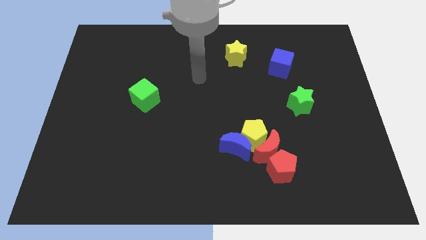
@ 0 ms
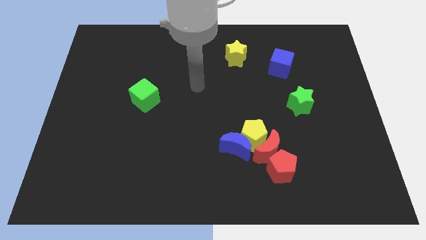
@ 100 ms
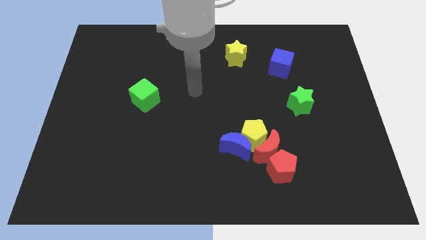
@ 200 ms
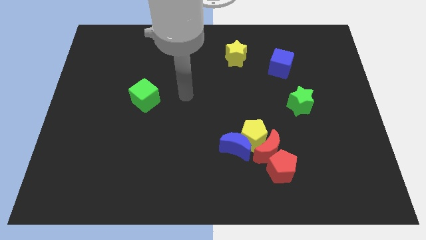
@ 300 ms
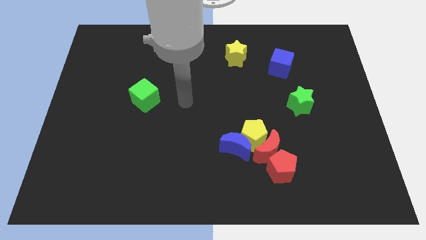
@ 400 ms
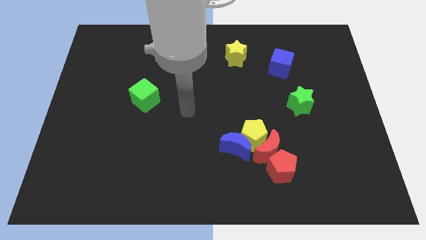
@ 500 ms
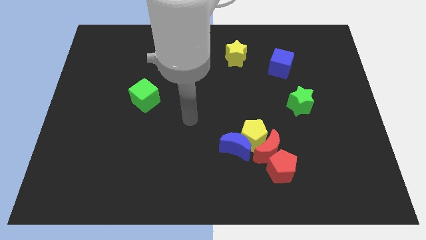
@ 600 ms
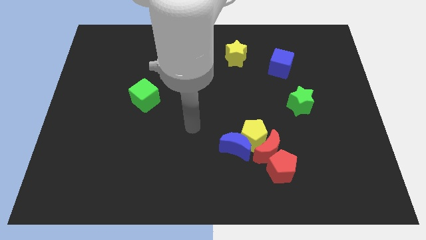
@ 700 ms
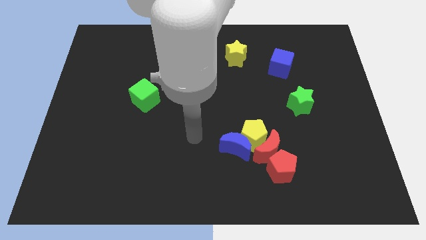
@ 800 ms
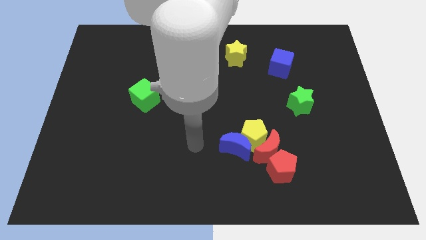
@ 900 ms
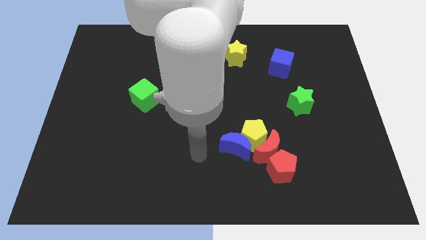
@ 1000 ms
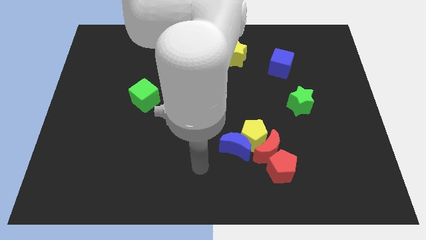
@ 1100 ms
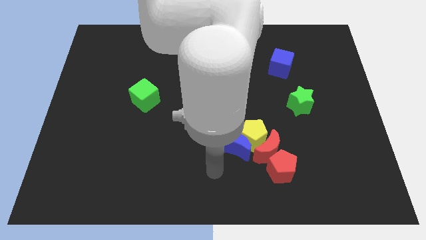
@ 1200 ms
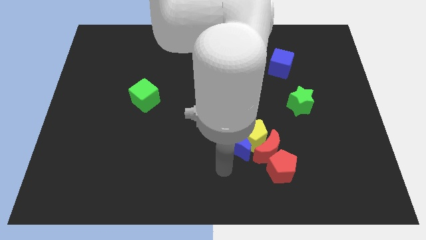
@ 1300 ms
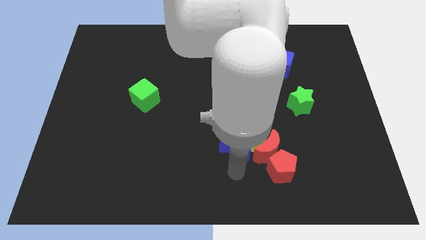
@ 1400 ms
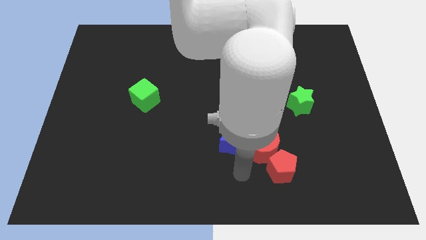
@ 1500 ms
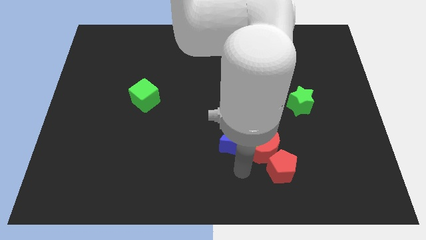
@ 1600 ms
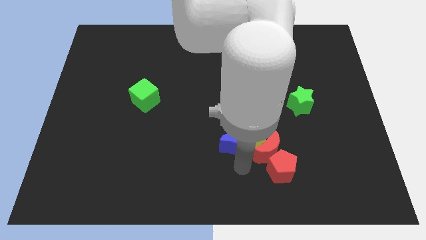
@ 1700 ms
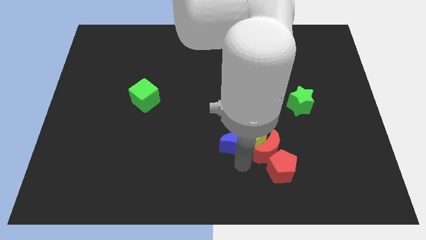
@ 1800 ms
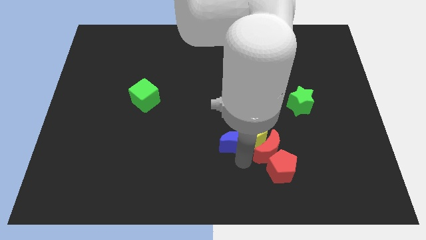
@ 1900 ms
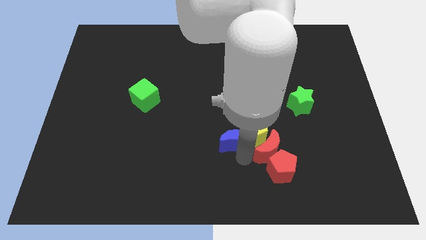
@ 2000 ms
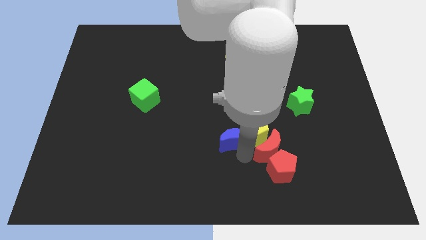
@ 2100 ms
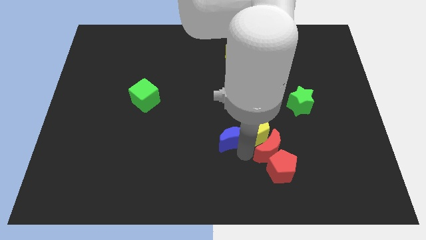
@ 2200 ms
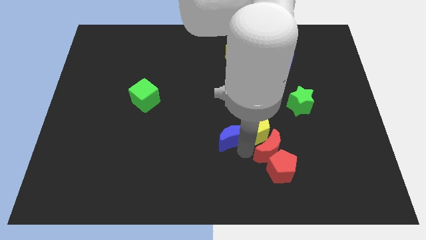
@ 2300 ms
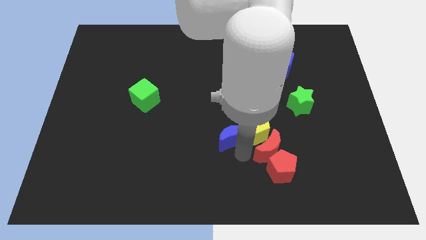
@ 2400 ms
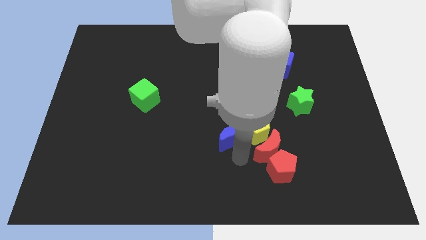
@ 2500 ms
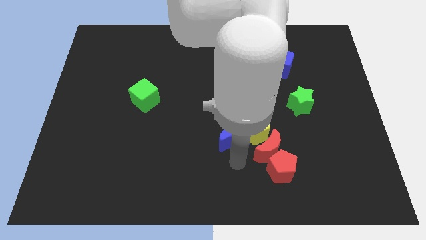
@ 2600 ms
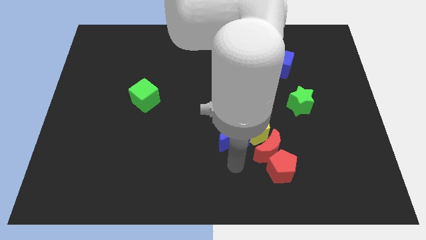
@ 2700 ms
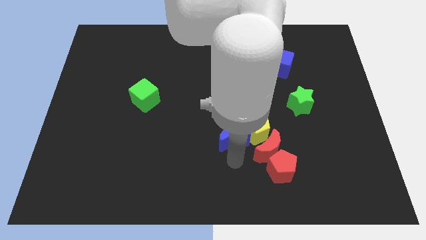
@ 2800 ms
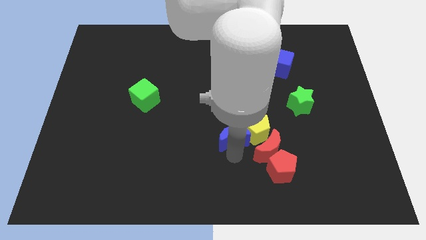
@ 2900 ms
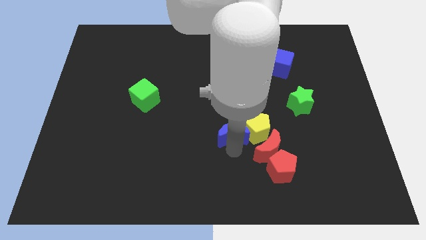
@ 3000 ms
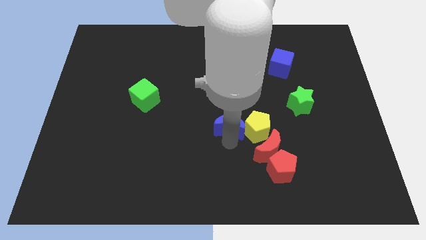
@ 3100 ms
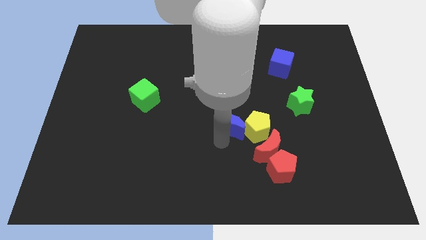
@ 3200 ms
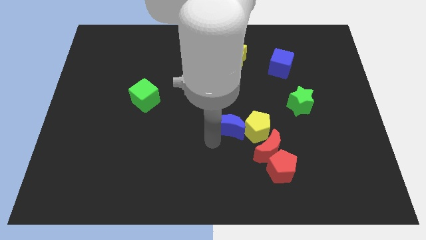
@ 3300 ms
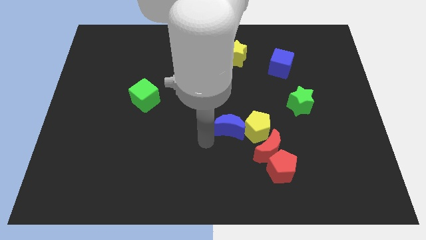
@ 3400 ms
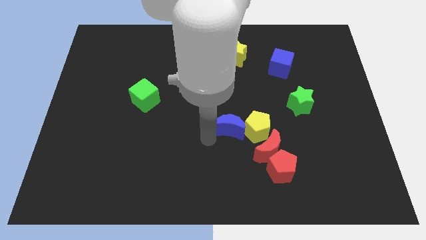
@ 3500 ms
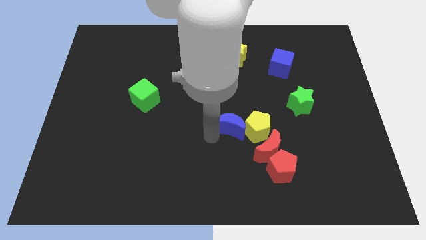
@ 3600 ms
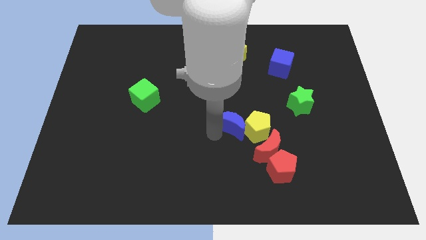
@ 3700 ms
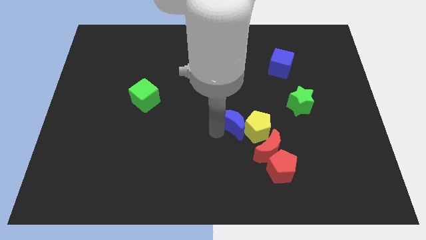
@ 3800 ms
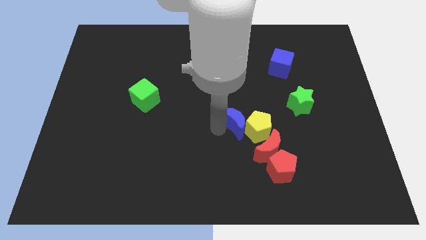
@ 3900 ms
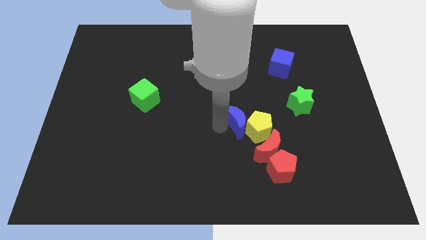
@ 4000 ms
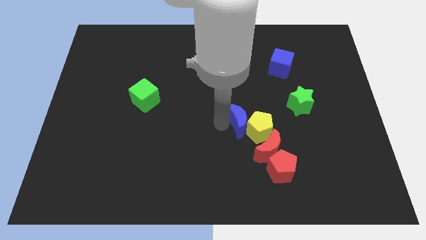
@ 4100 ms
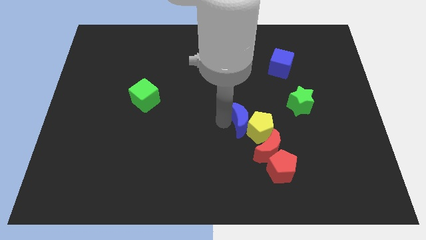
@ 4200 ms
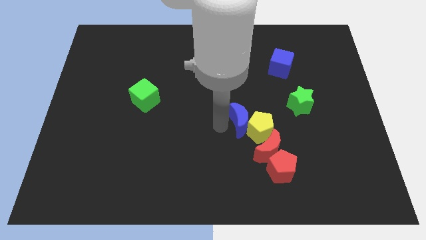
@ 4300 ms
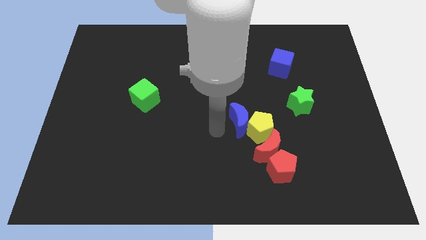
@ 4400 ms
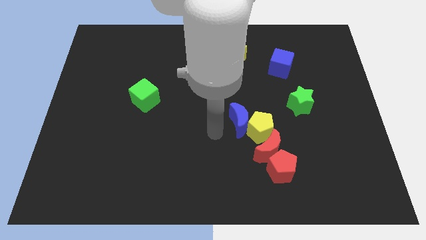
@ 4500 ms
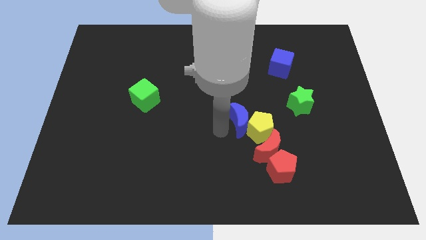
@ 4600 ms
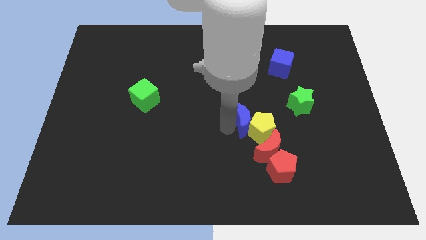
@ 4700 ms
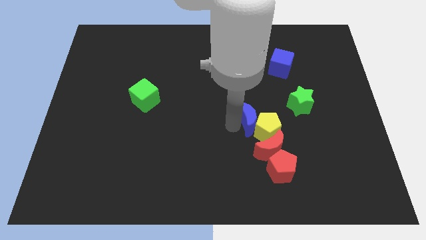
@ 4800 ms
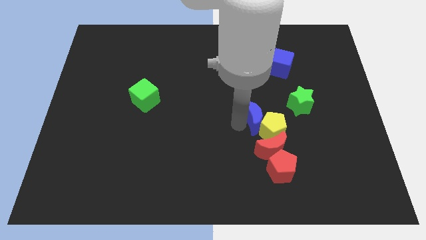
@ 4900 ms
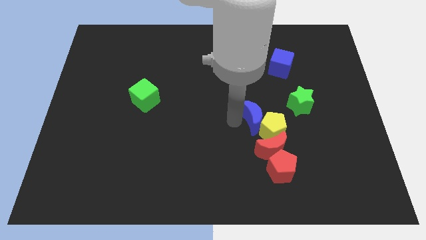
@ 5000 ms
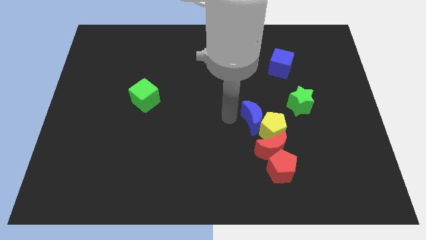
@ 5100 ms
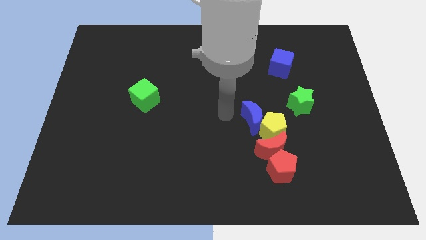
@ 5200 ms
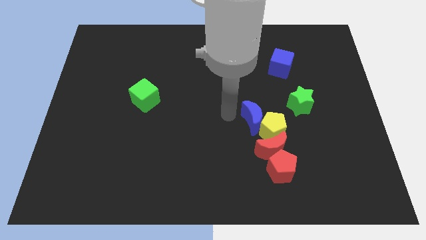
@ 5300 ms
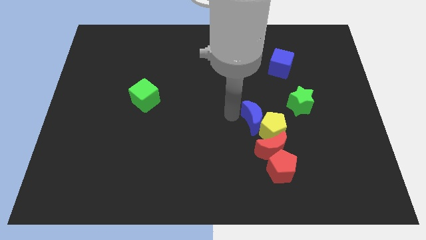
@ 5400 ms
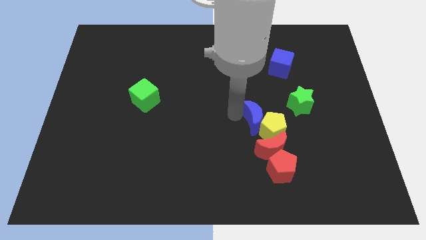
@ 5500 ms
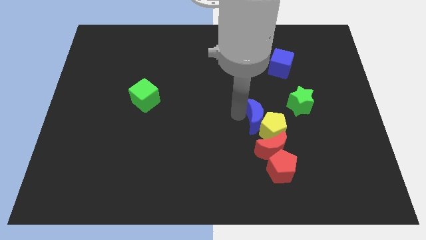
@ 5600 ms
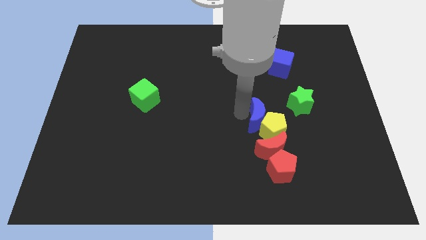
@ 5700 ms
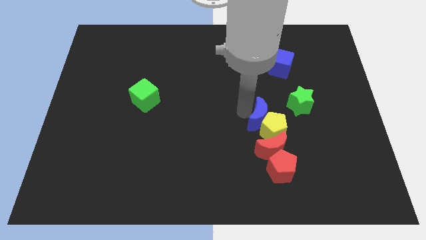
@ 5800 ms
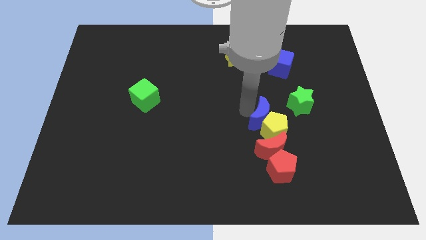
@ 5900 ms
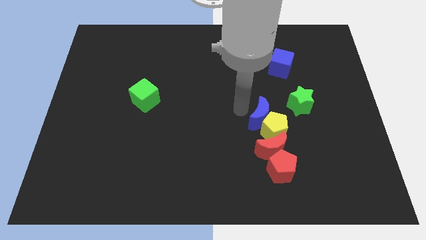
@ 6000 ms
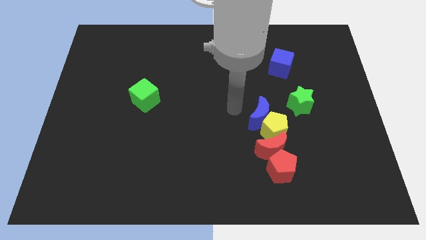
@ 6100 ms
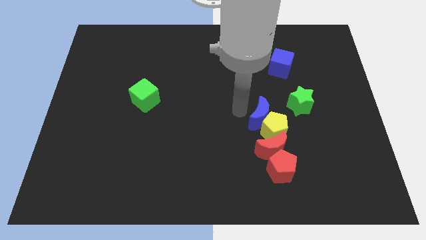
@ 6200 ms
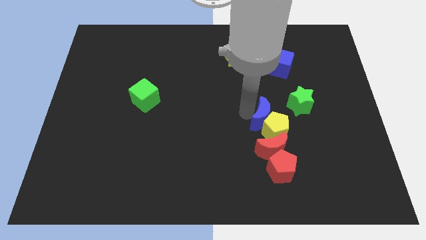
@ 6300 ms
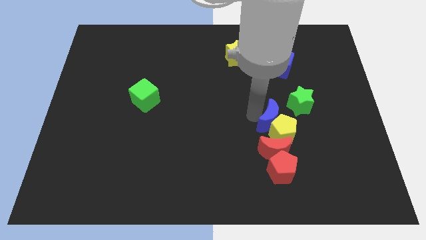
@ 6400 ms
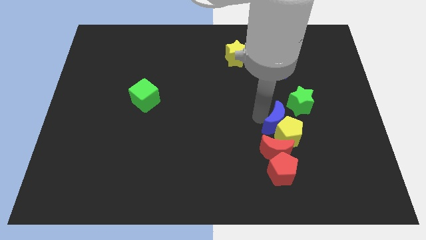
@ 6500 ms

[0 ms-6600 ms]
push the blue moon right somewhat

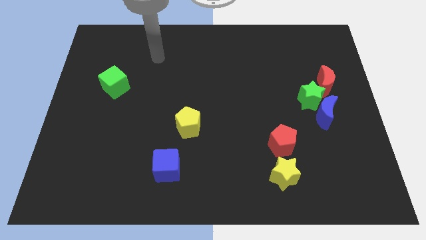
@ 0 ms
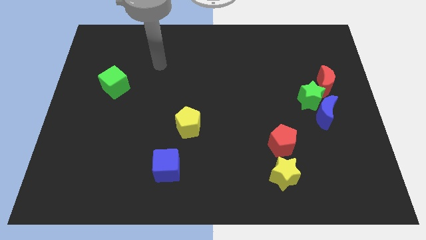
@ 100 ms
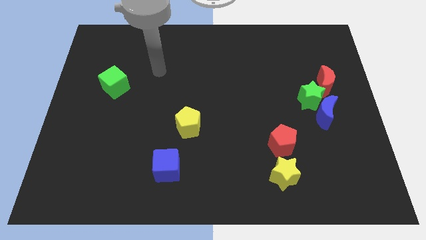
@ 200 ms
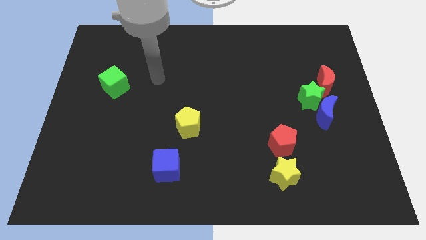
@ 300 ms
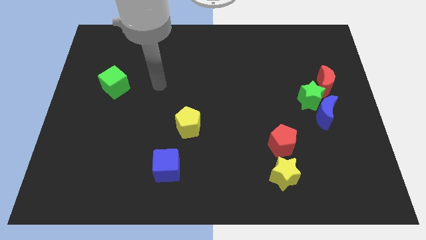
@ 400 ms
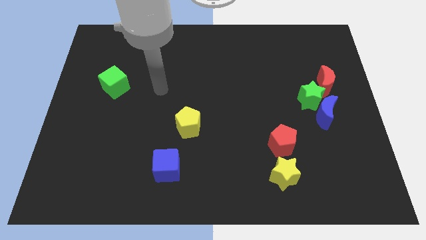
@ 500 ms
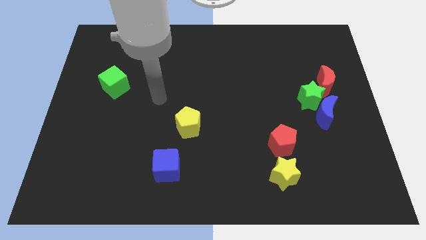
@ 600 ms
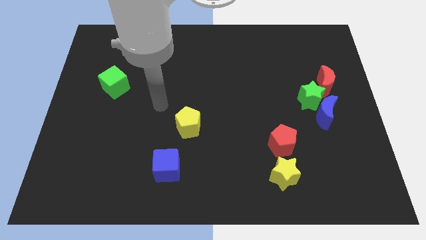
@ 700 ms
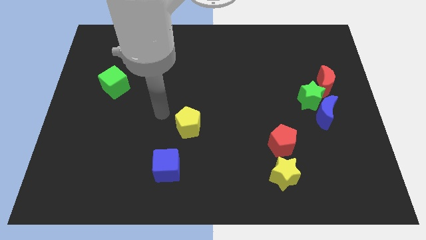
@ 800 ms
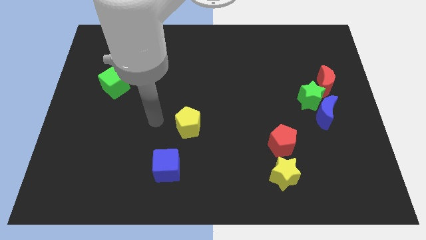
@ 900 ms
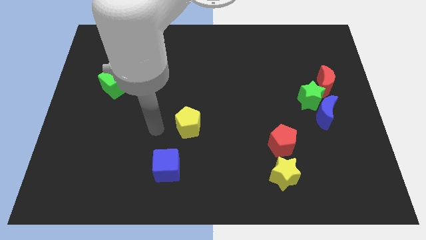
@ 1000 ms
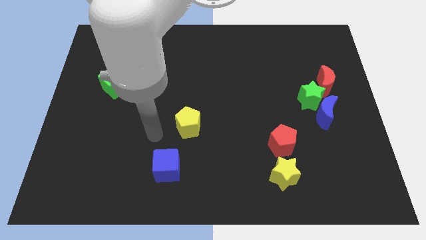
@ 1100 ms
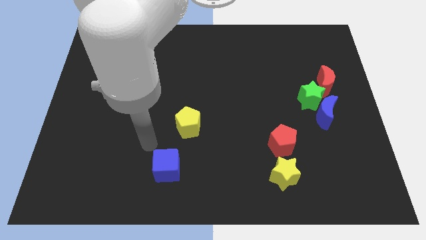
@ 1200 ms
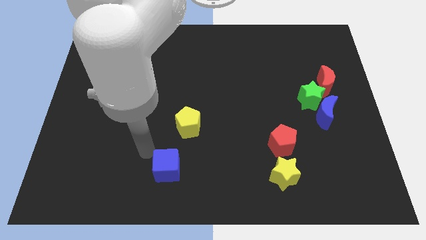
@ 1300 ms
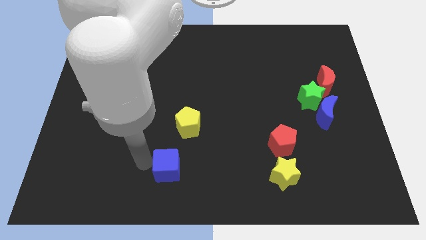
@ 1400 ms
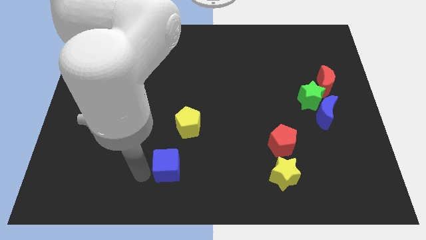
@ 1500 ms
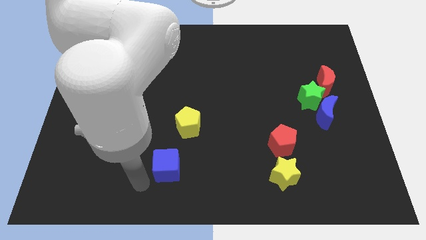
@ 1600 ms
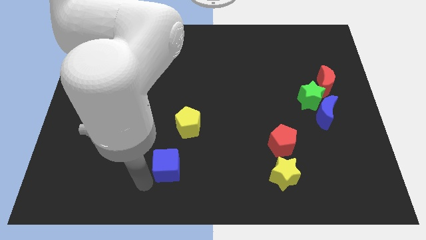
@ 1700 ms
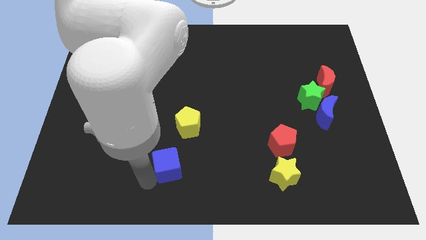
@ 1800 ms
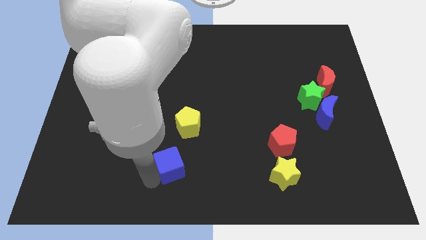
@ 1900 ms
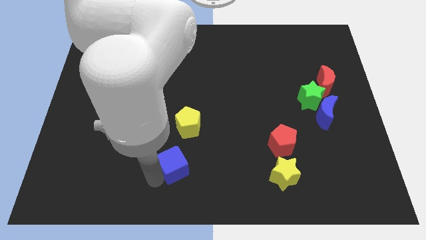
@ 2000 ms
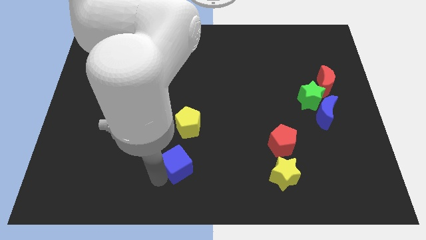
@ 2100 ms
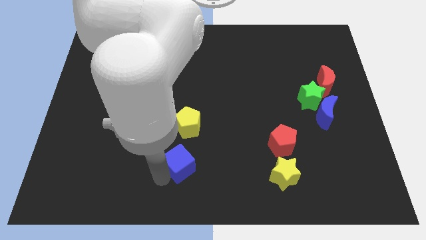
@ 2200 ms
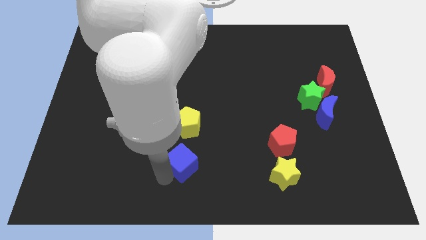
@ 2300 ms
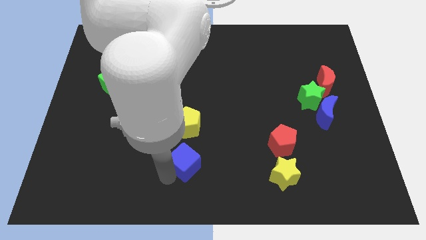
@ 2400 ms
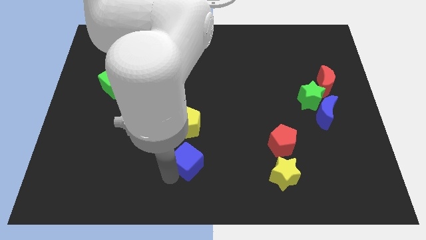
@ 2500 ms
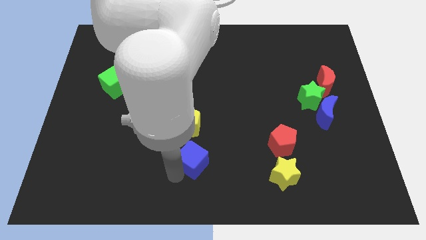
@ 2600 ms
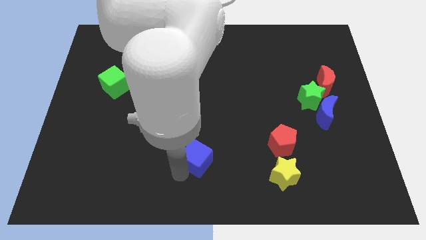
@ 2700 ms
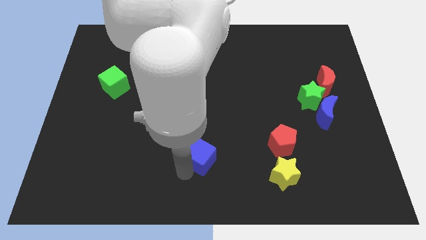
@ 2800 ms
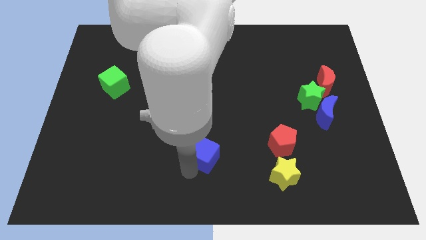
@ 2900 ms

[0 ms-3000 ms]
move the blue cube a little bit diagonally upwards and right
